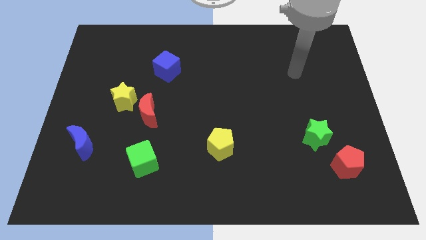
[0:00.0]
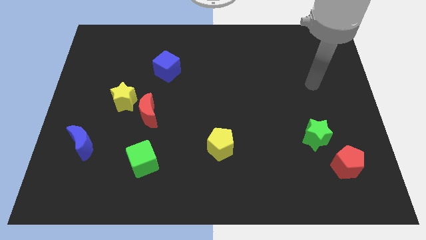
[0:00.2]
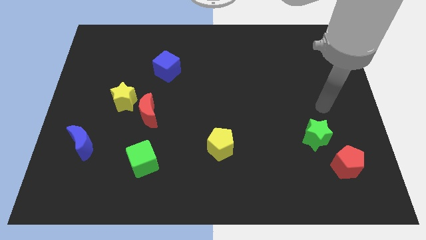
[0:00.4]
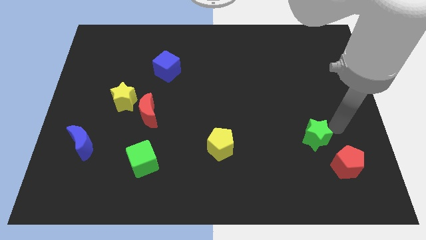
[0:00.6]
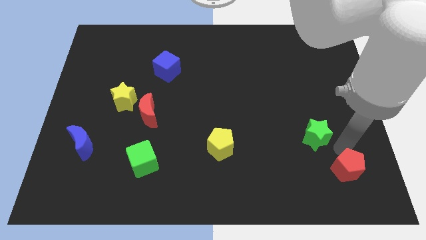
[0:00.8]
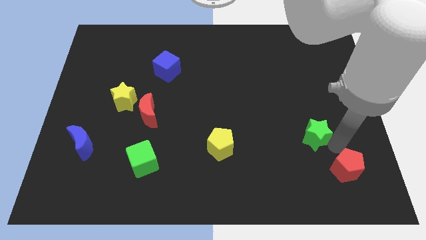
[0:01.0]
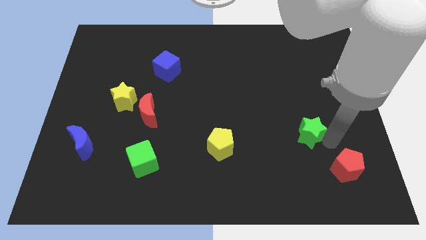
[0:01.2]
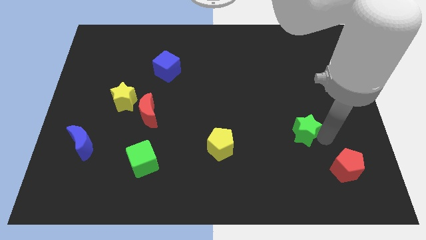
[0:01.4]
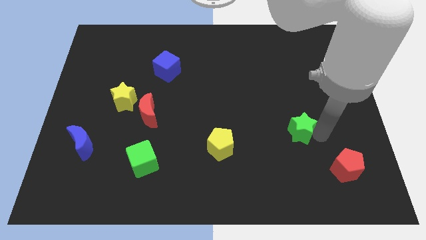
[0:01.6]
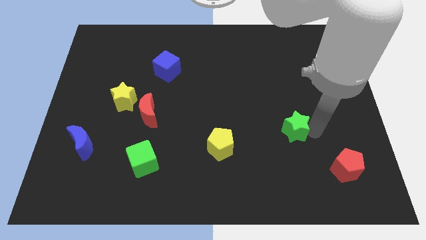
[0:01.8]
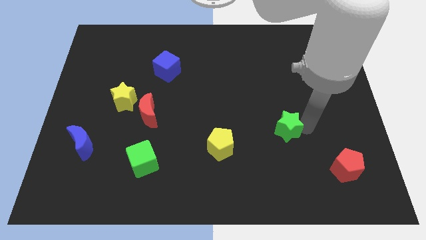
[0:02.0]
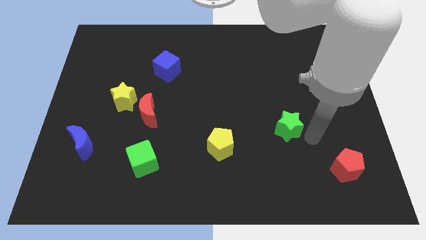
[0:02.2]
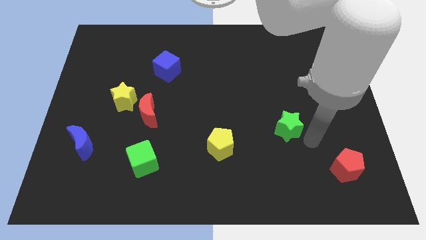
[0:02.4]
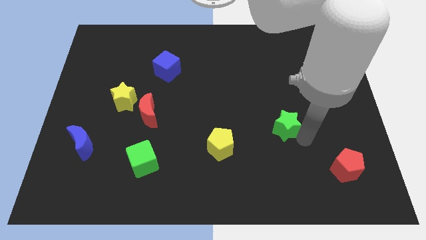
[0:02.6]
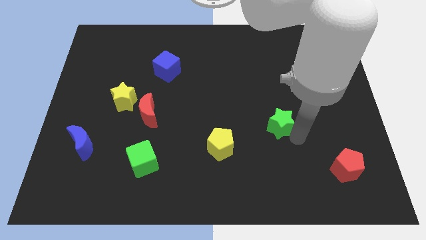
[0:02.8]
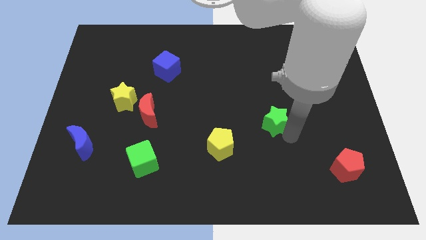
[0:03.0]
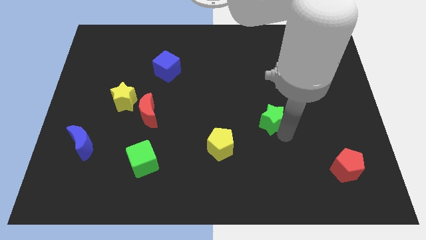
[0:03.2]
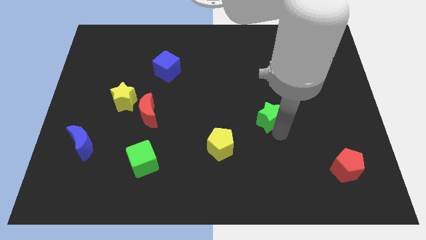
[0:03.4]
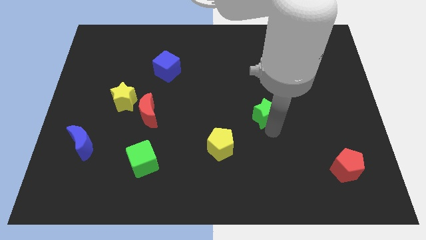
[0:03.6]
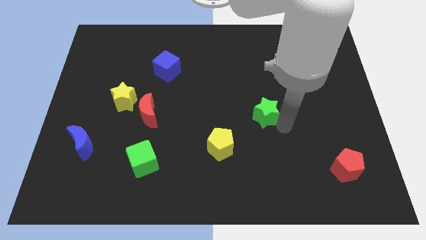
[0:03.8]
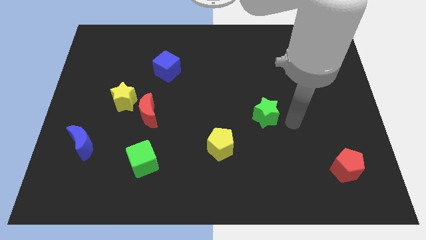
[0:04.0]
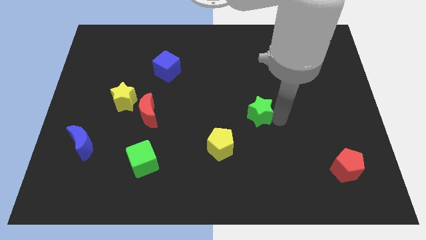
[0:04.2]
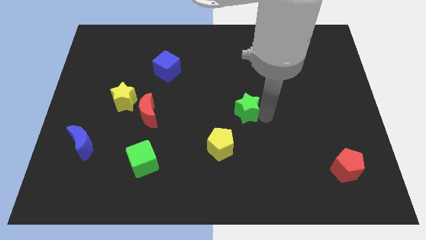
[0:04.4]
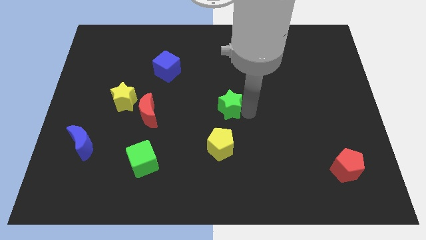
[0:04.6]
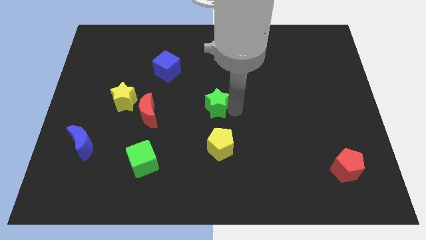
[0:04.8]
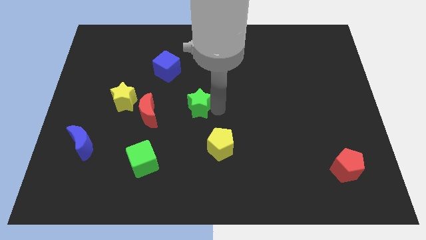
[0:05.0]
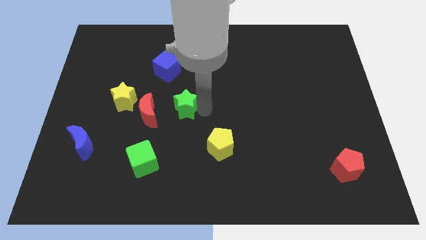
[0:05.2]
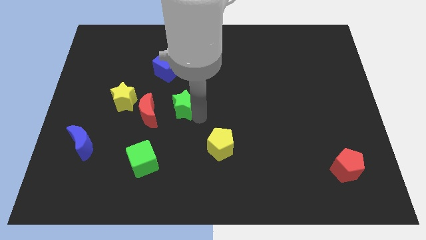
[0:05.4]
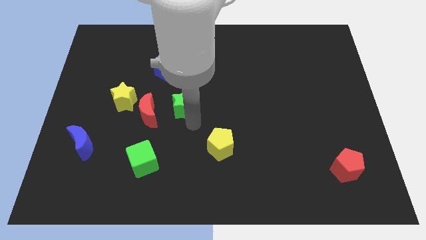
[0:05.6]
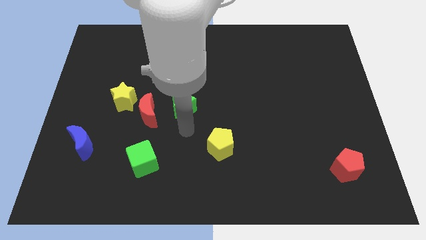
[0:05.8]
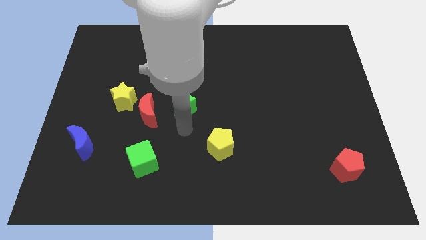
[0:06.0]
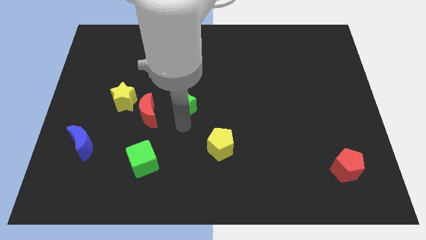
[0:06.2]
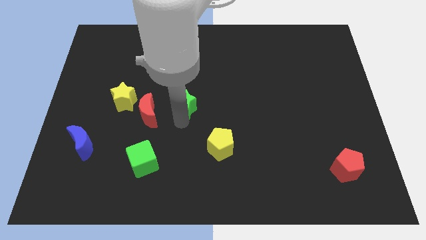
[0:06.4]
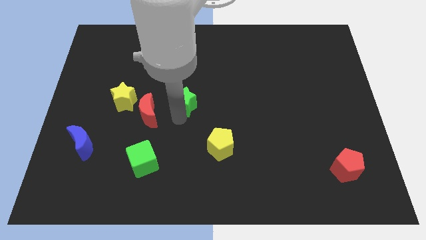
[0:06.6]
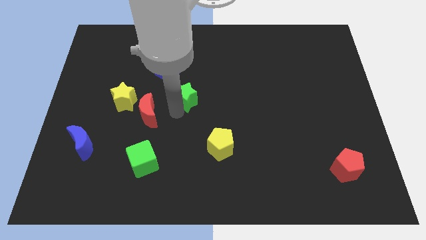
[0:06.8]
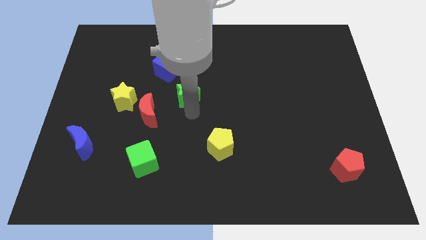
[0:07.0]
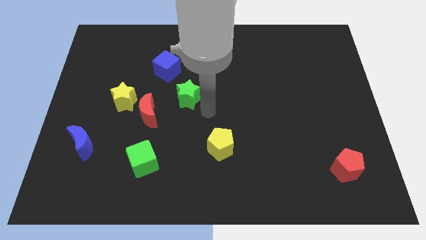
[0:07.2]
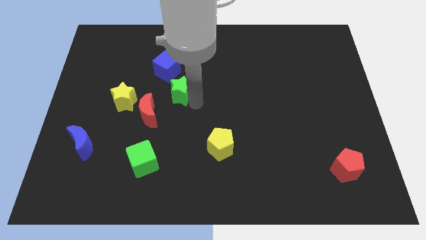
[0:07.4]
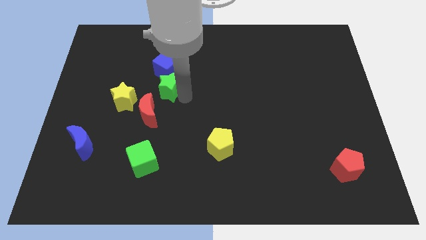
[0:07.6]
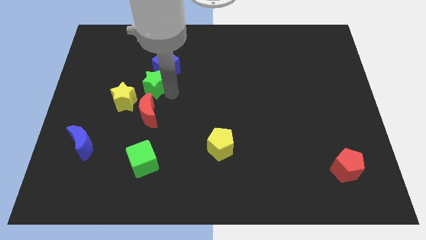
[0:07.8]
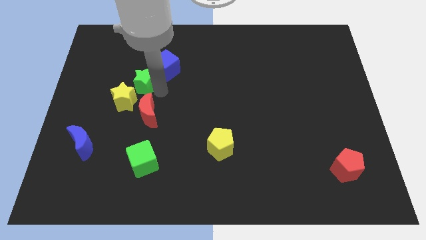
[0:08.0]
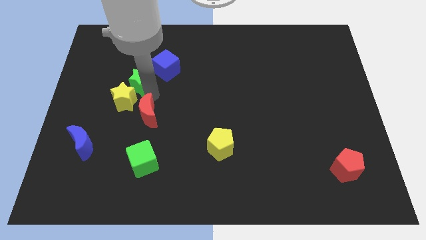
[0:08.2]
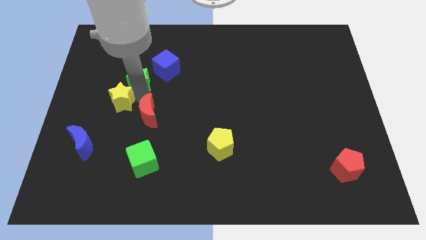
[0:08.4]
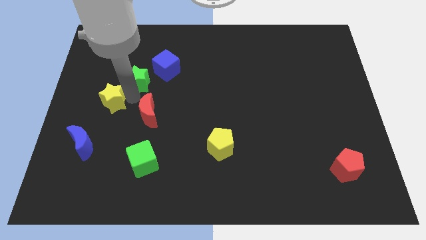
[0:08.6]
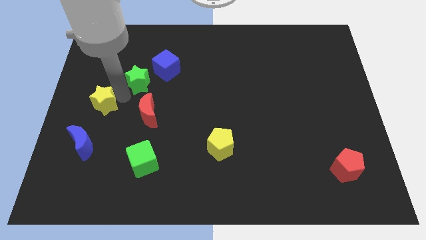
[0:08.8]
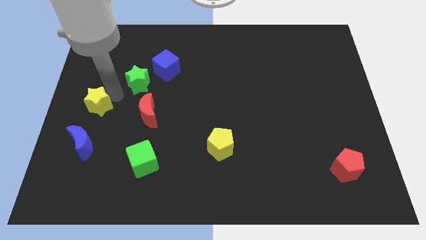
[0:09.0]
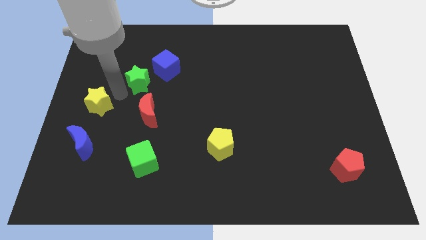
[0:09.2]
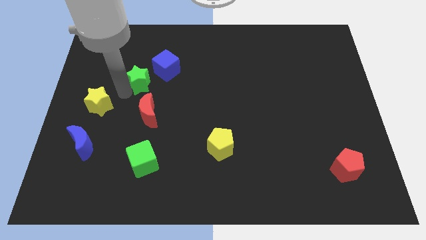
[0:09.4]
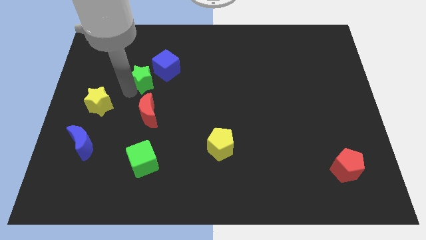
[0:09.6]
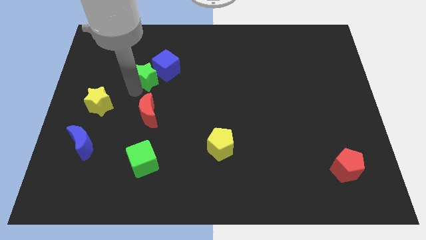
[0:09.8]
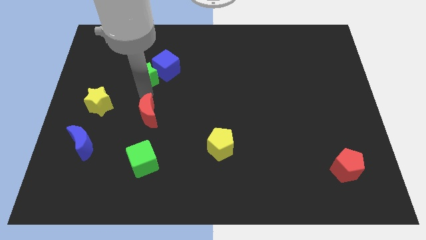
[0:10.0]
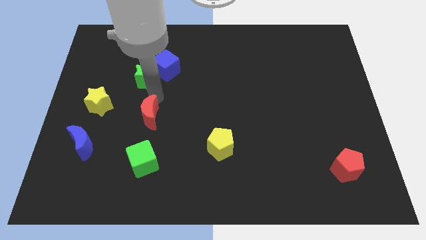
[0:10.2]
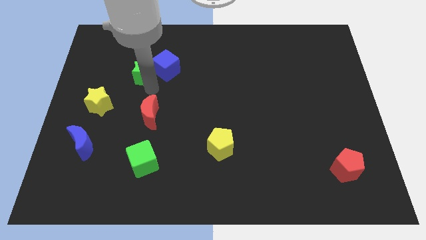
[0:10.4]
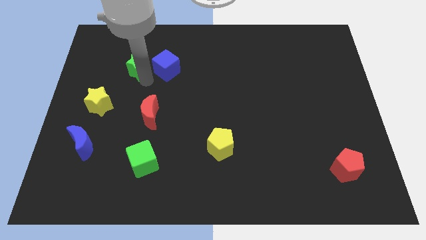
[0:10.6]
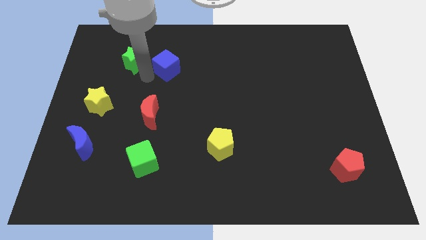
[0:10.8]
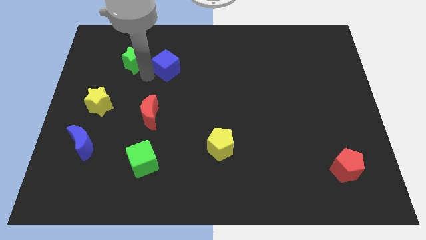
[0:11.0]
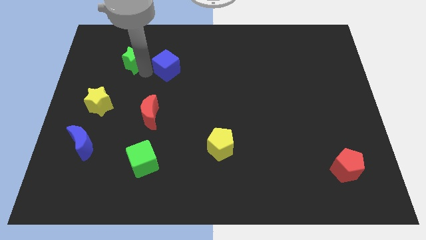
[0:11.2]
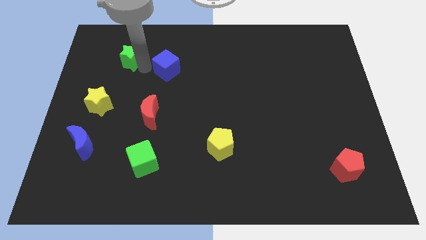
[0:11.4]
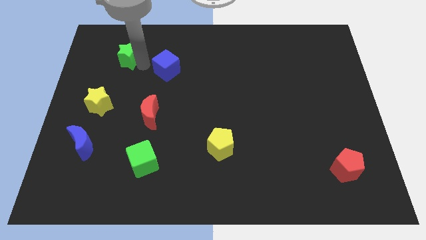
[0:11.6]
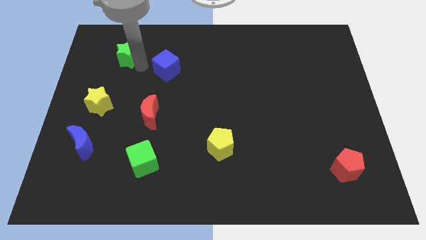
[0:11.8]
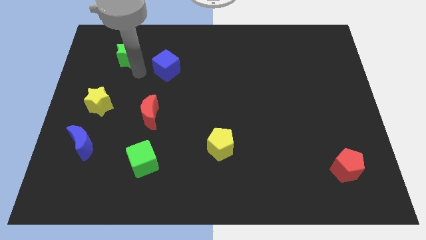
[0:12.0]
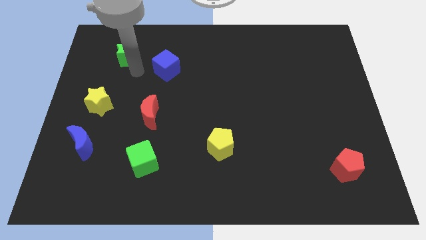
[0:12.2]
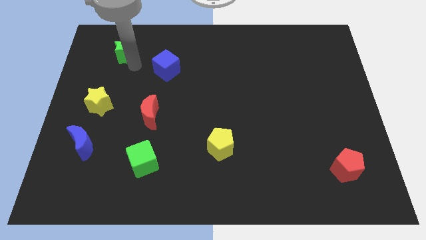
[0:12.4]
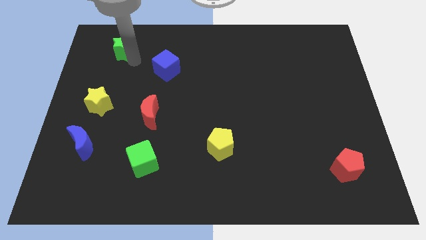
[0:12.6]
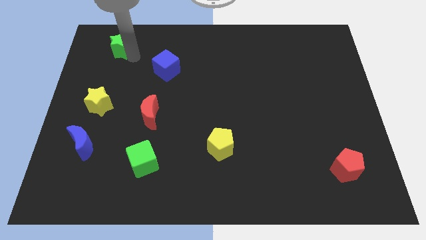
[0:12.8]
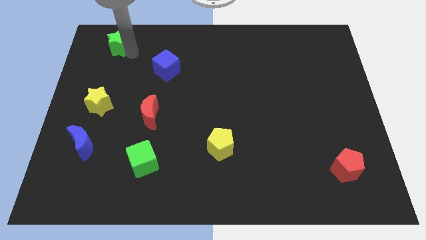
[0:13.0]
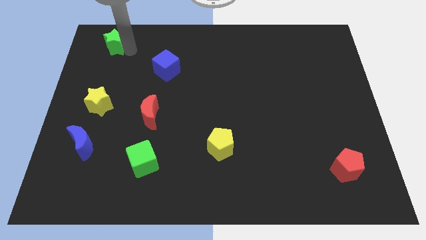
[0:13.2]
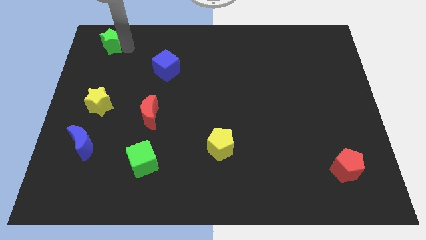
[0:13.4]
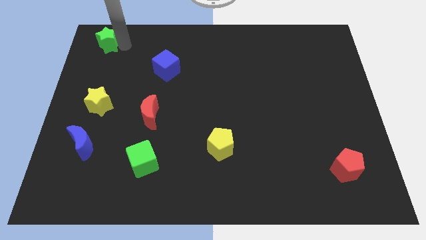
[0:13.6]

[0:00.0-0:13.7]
slide the green star to the top left corner
